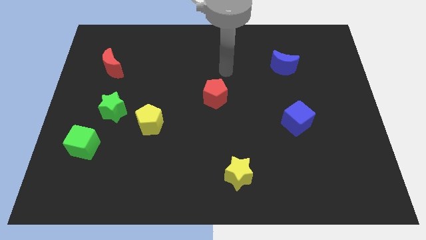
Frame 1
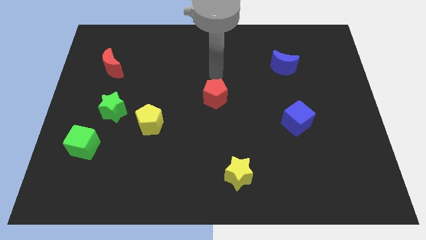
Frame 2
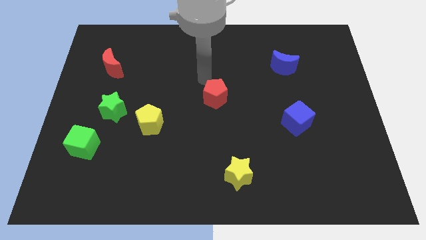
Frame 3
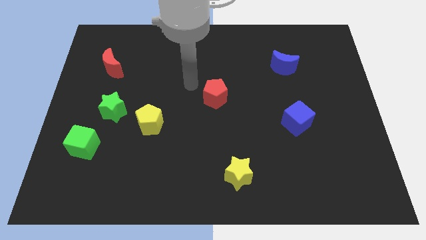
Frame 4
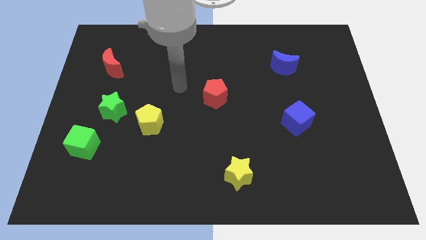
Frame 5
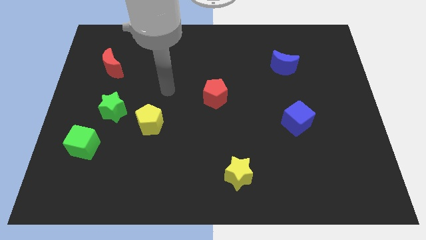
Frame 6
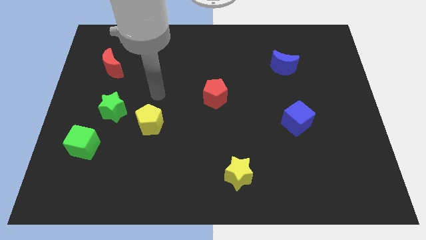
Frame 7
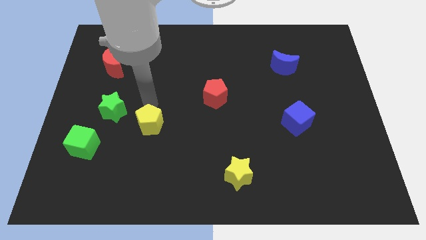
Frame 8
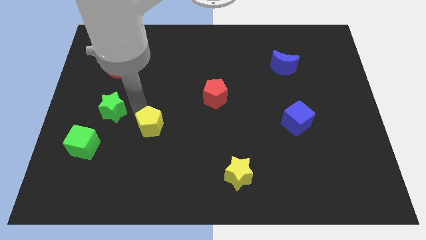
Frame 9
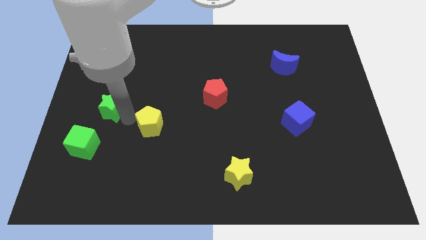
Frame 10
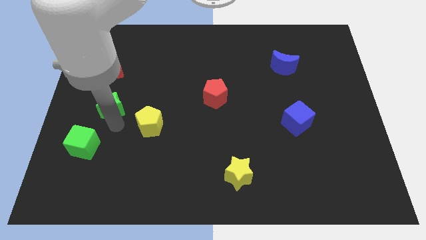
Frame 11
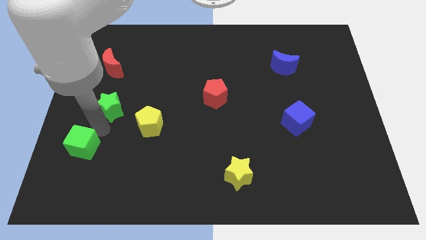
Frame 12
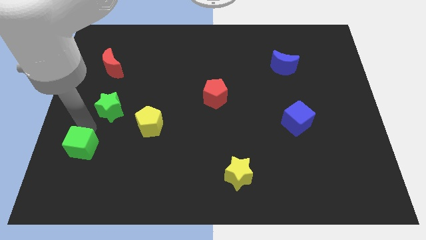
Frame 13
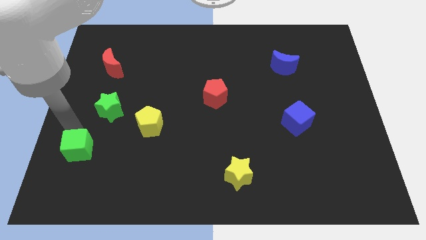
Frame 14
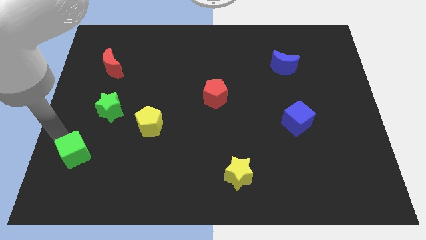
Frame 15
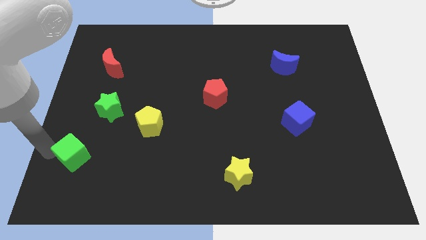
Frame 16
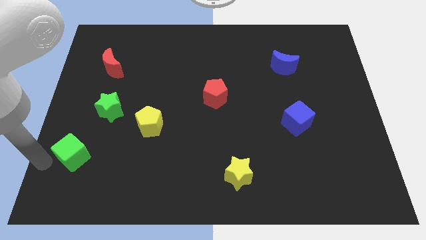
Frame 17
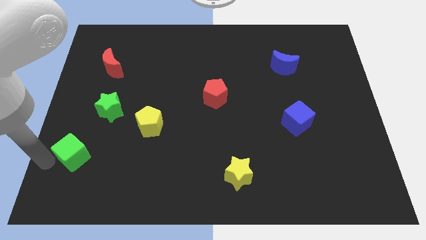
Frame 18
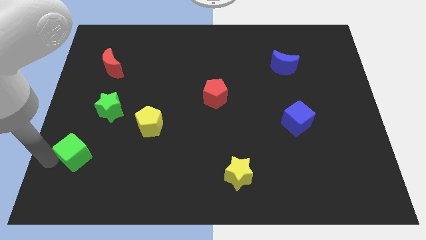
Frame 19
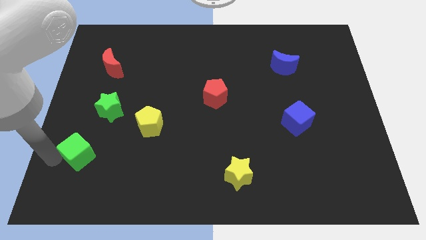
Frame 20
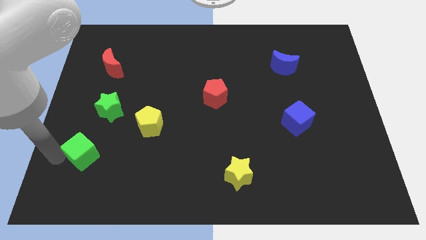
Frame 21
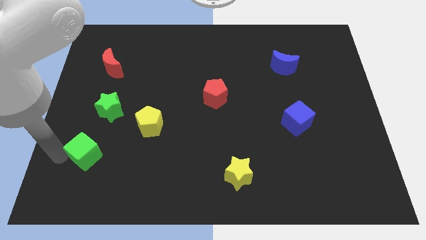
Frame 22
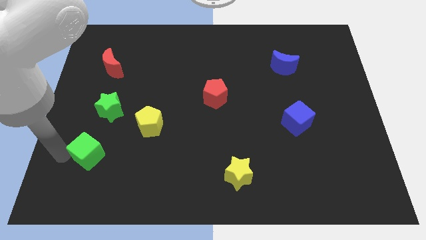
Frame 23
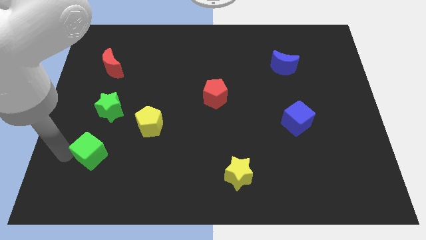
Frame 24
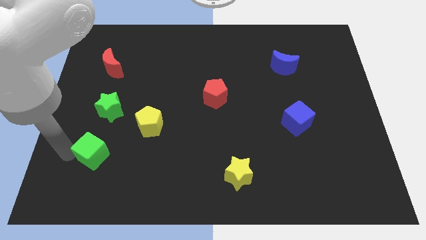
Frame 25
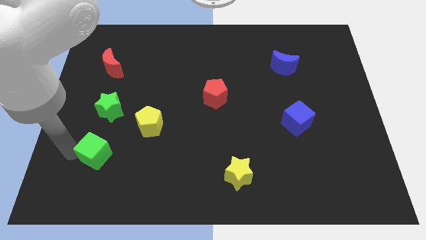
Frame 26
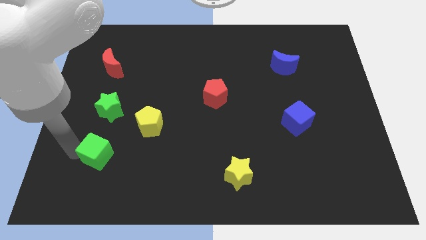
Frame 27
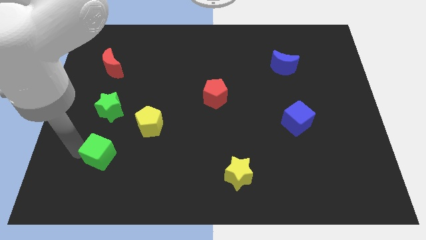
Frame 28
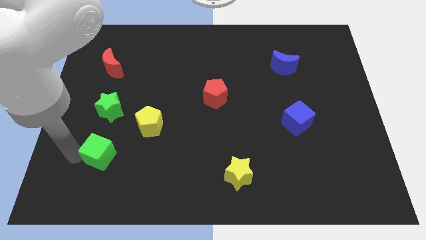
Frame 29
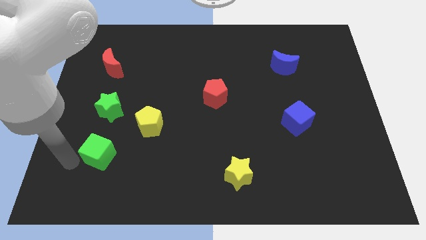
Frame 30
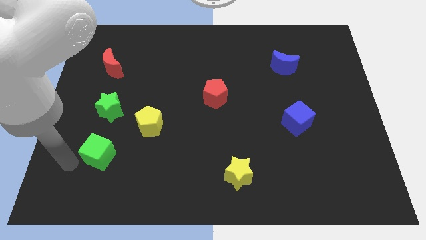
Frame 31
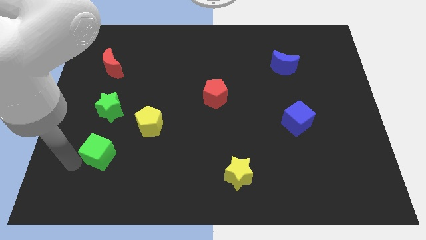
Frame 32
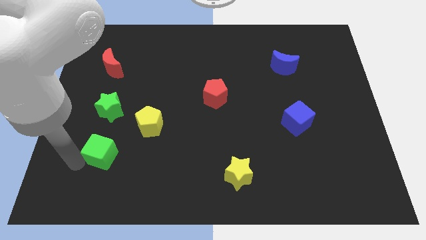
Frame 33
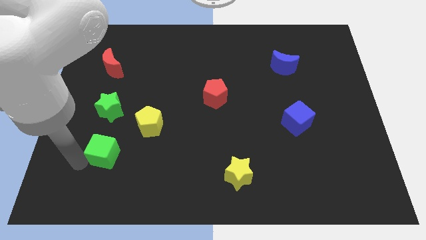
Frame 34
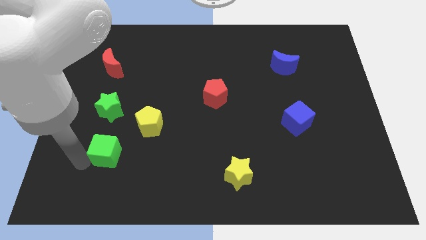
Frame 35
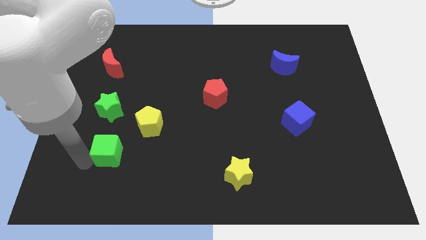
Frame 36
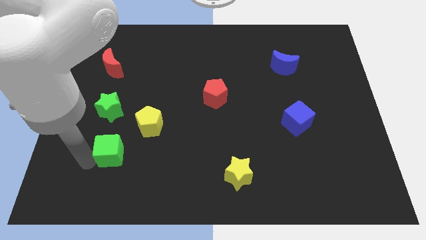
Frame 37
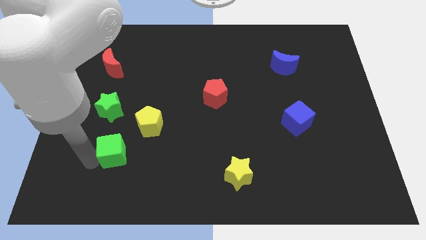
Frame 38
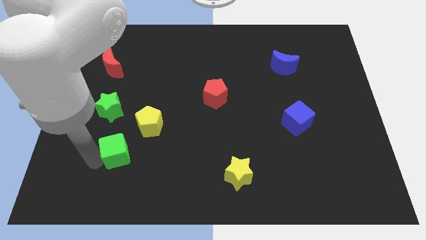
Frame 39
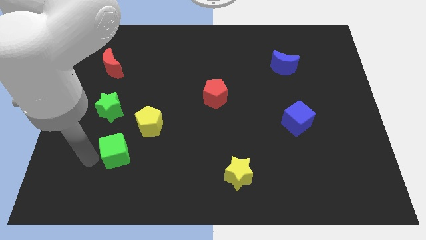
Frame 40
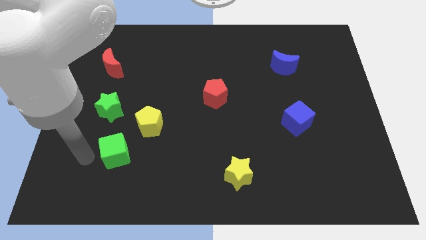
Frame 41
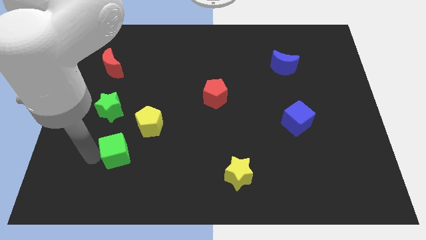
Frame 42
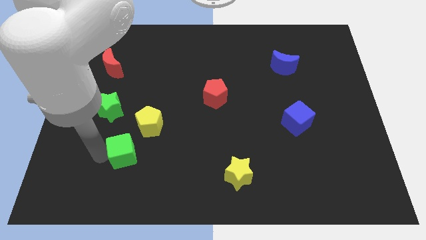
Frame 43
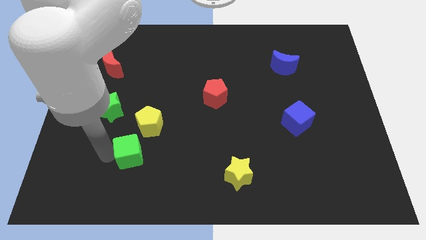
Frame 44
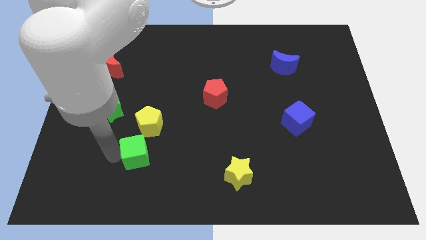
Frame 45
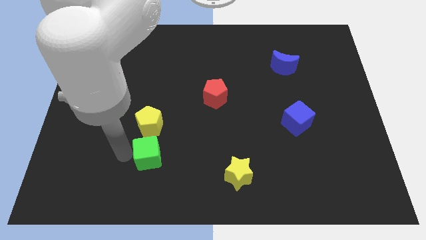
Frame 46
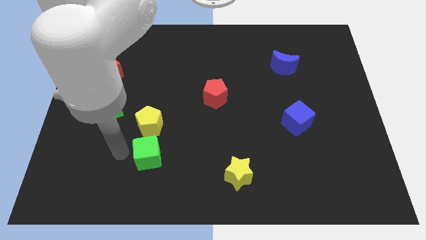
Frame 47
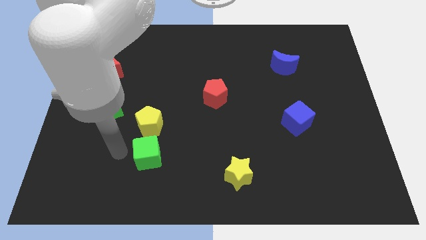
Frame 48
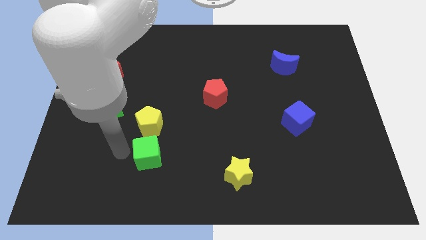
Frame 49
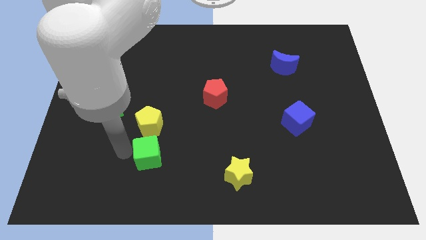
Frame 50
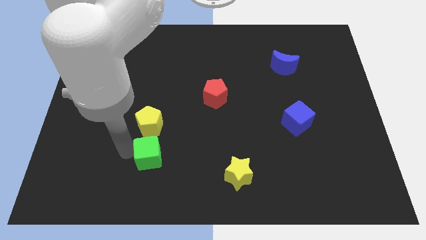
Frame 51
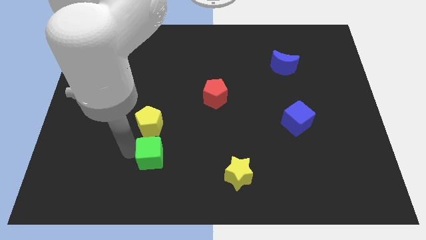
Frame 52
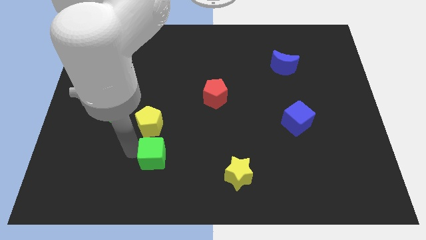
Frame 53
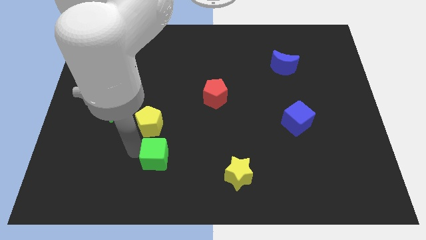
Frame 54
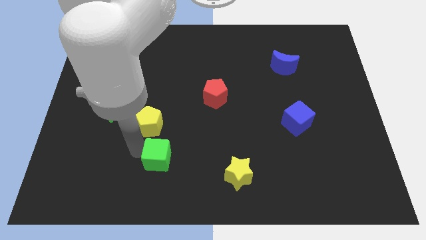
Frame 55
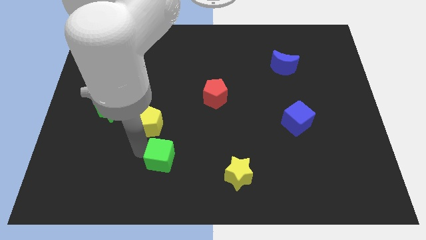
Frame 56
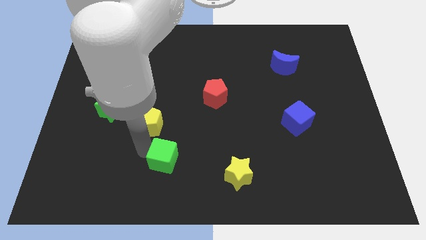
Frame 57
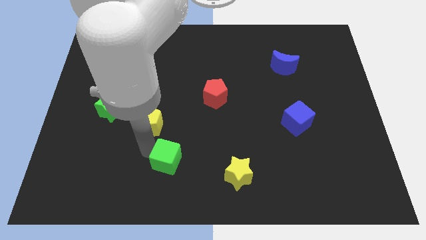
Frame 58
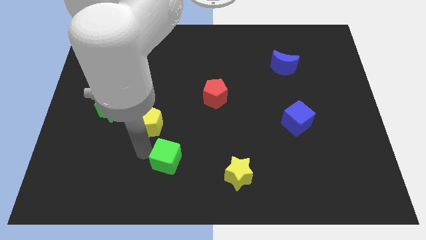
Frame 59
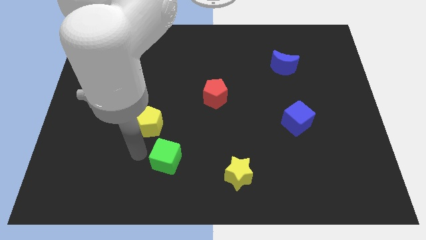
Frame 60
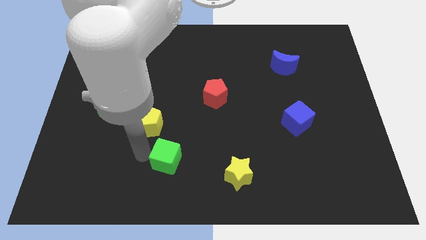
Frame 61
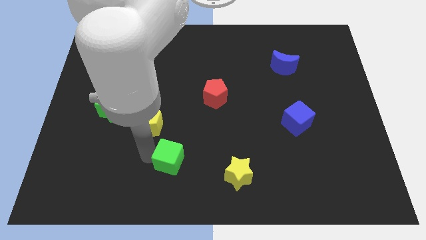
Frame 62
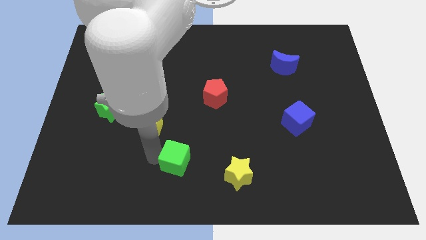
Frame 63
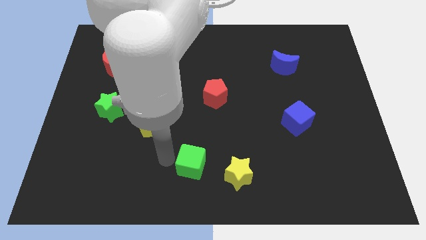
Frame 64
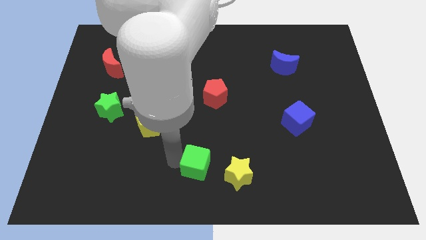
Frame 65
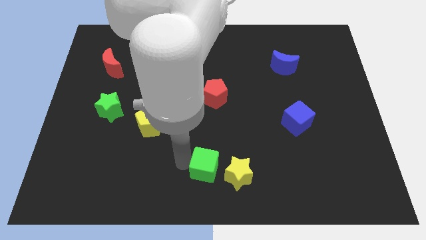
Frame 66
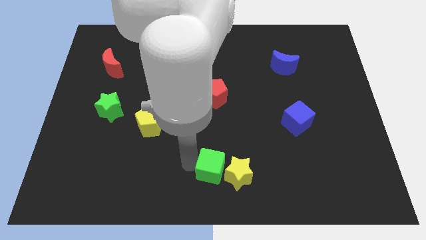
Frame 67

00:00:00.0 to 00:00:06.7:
slide the green cube close to the yellow star

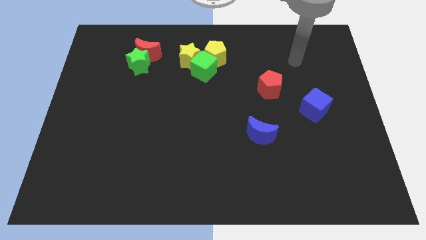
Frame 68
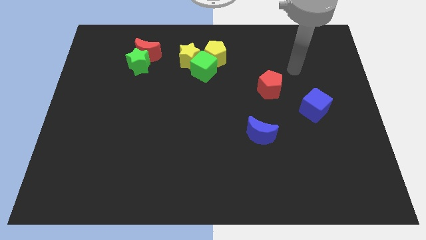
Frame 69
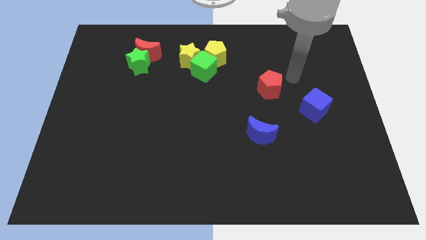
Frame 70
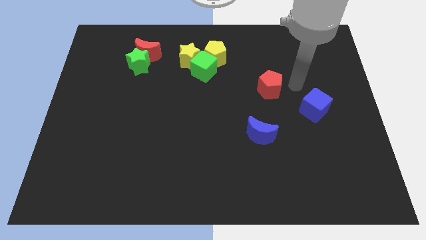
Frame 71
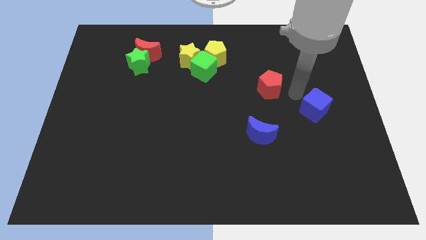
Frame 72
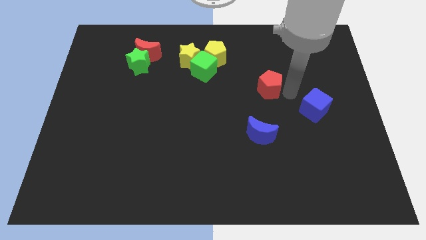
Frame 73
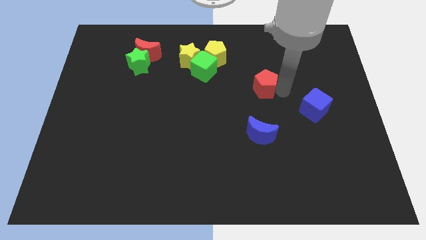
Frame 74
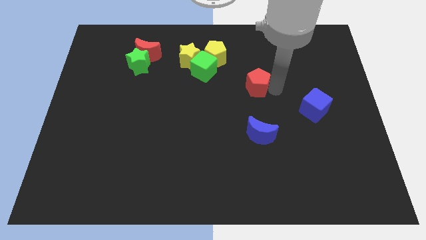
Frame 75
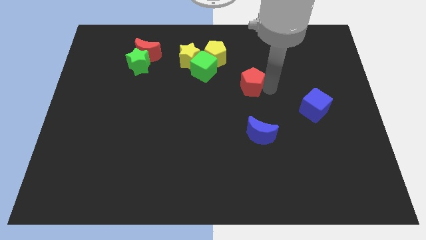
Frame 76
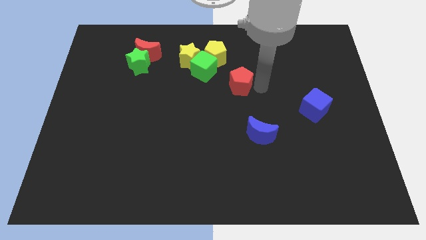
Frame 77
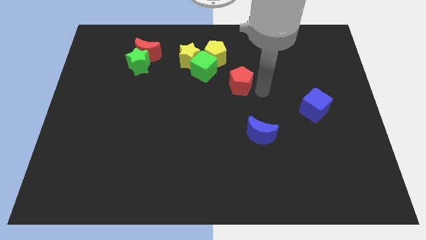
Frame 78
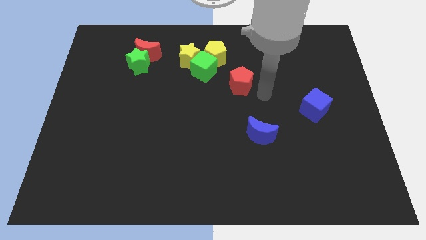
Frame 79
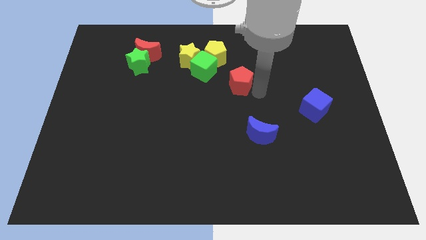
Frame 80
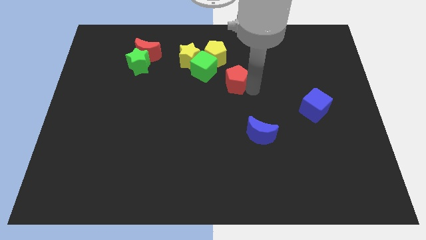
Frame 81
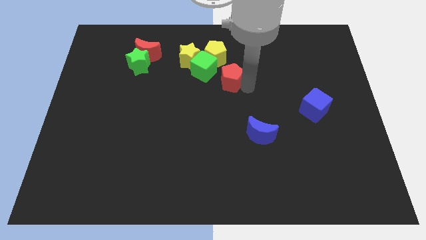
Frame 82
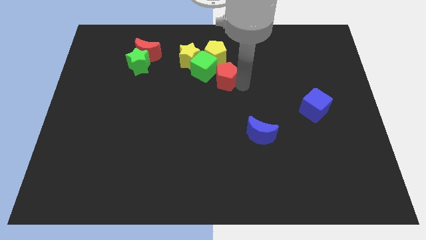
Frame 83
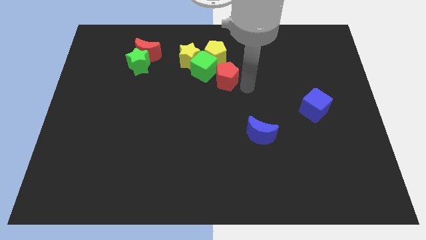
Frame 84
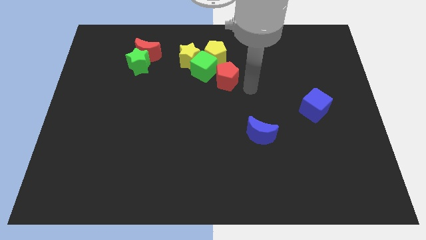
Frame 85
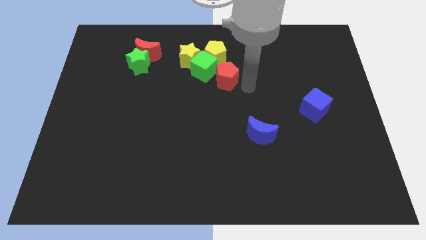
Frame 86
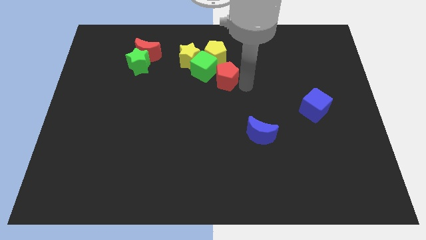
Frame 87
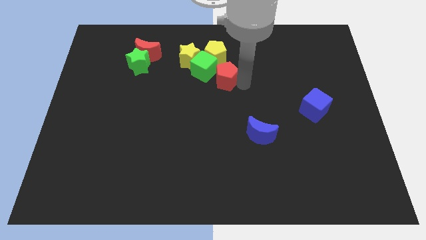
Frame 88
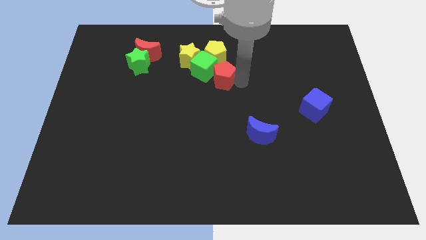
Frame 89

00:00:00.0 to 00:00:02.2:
move the red pentagon next to the green cube
